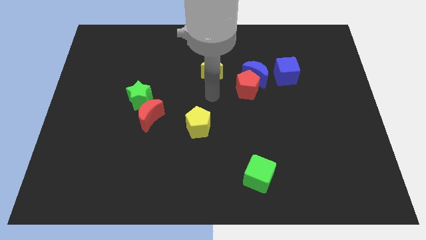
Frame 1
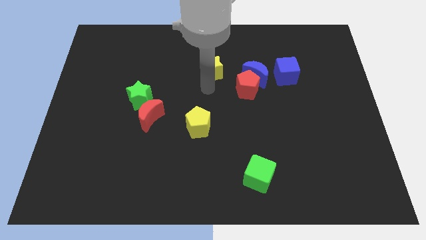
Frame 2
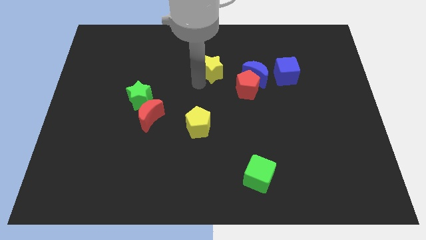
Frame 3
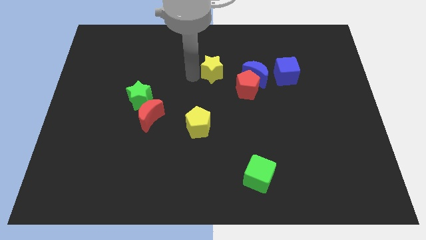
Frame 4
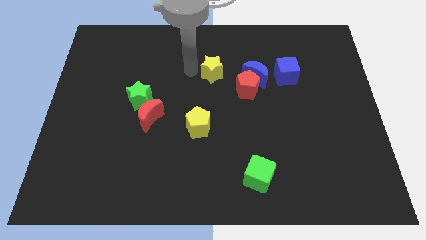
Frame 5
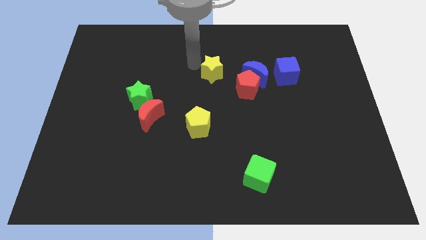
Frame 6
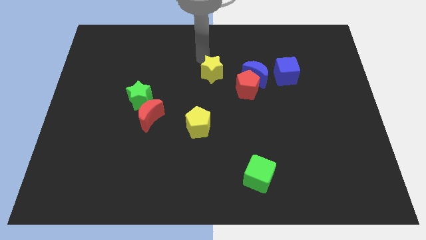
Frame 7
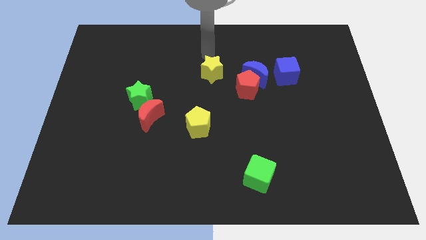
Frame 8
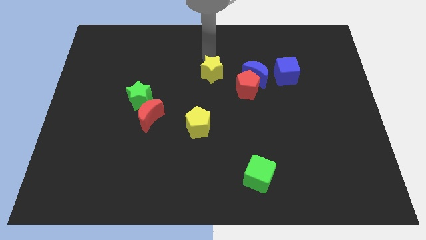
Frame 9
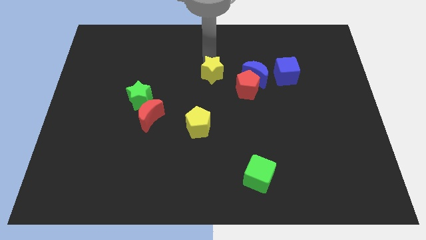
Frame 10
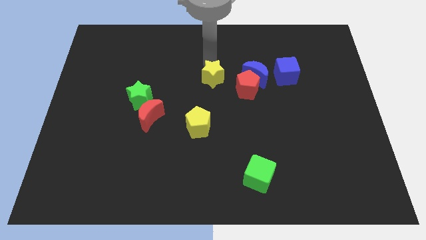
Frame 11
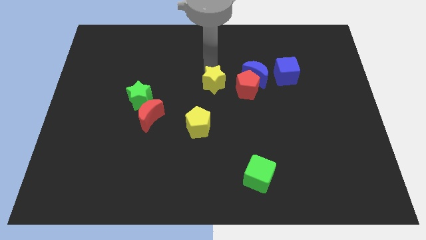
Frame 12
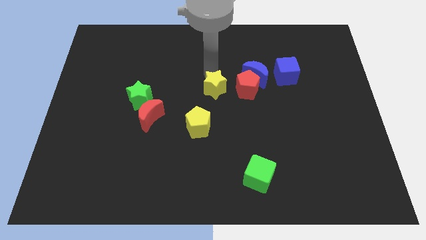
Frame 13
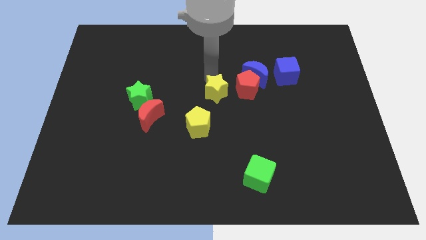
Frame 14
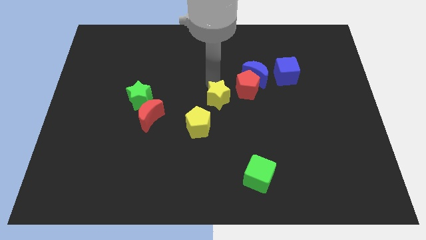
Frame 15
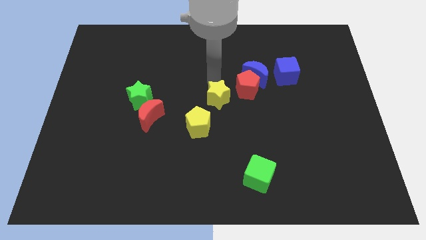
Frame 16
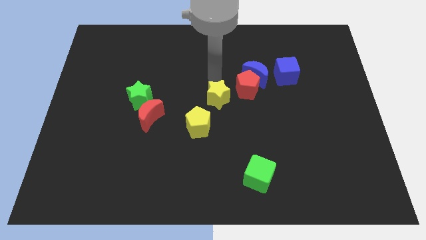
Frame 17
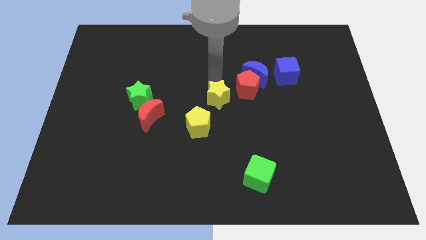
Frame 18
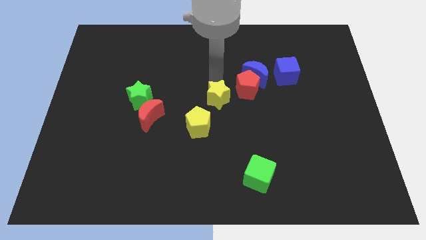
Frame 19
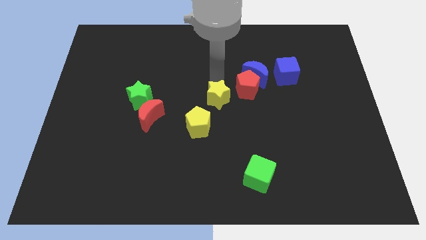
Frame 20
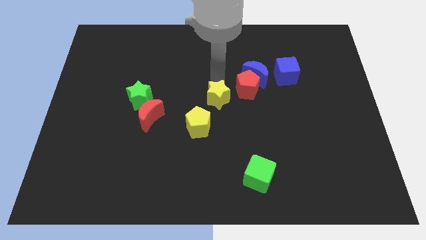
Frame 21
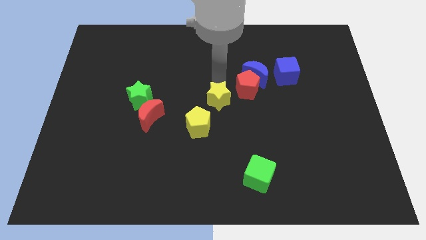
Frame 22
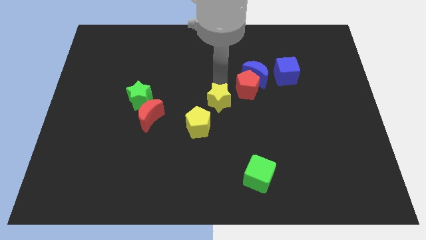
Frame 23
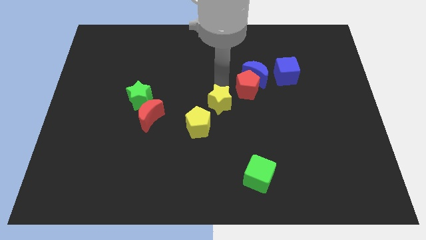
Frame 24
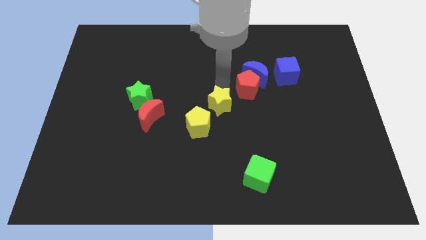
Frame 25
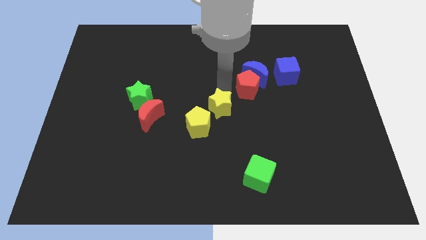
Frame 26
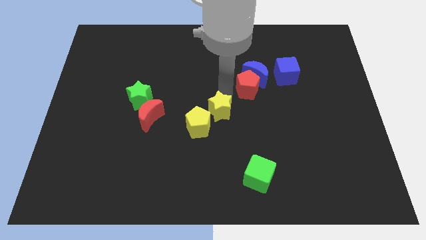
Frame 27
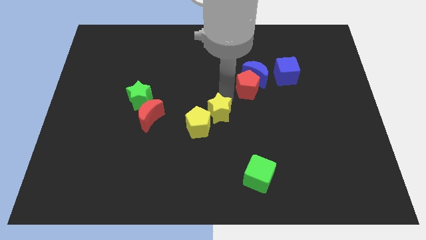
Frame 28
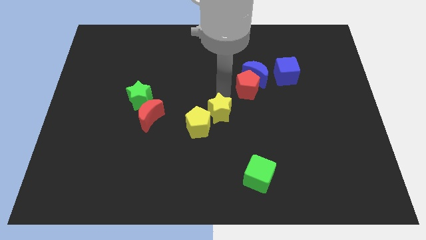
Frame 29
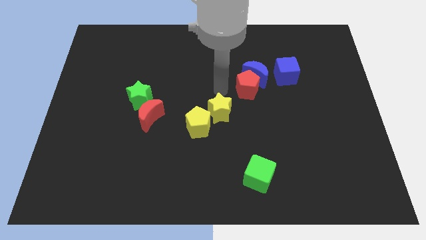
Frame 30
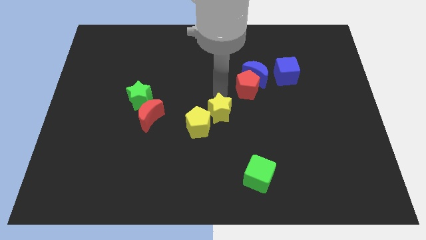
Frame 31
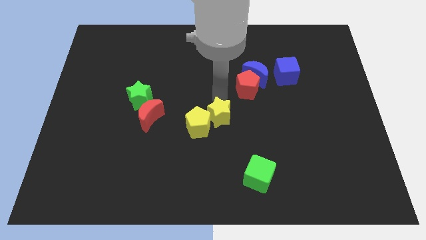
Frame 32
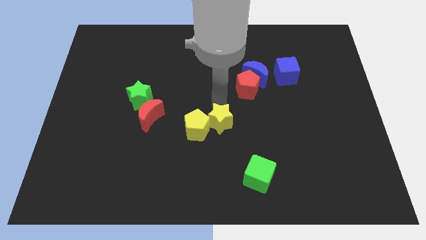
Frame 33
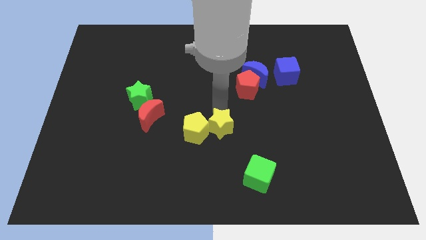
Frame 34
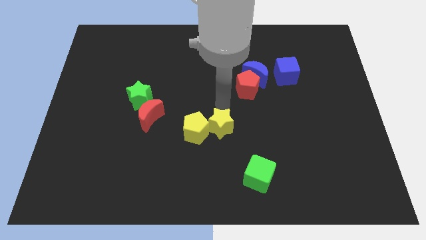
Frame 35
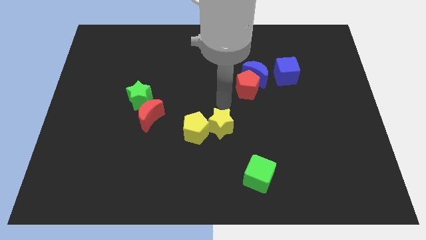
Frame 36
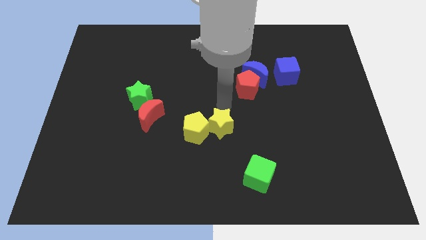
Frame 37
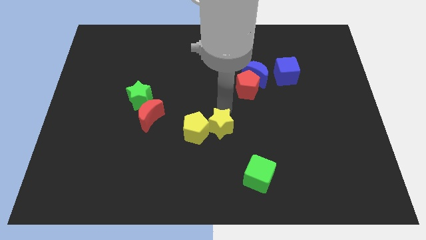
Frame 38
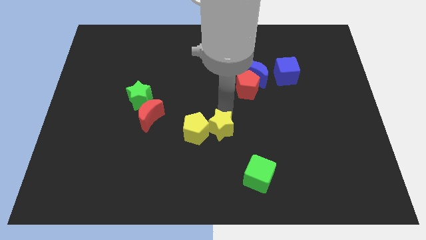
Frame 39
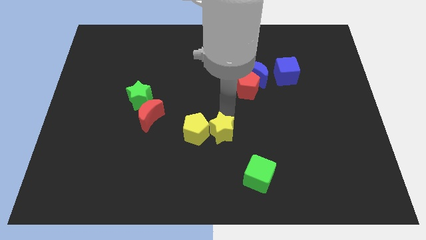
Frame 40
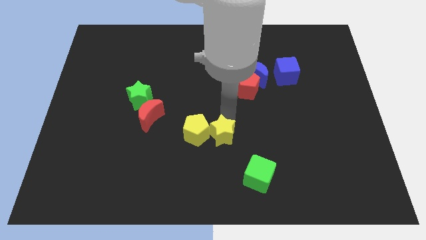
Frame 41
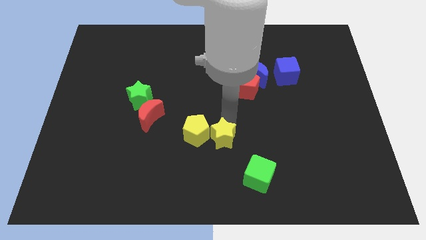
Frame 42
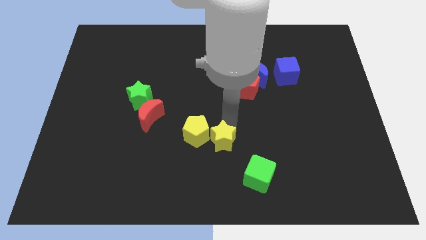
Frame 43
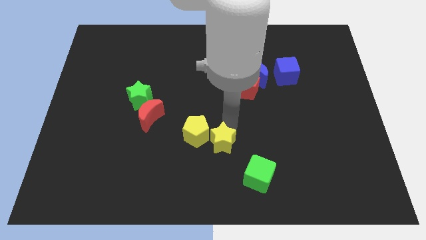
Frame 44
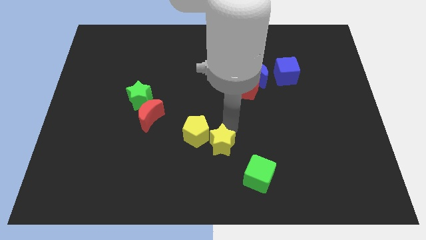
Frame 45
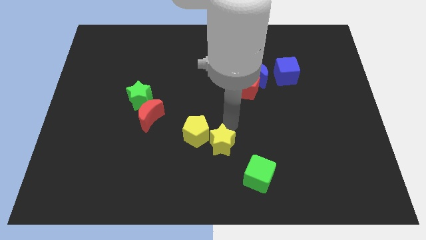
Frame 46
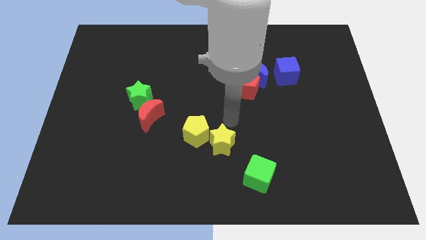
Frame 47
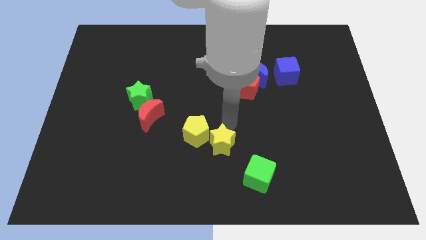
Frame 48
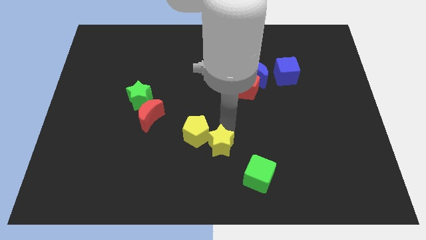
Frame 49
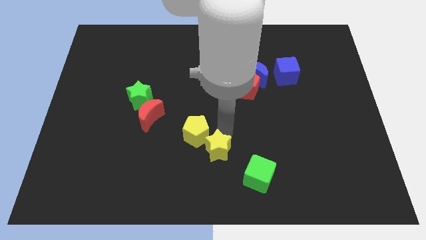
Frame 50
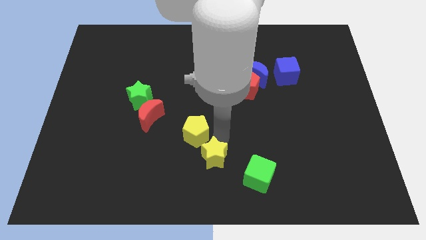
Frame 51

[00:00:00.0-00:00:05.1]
move the yellow star to the bottom

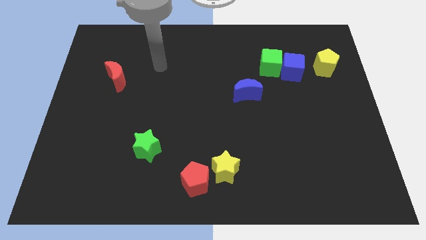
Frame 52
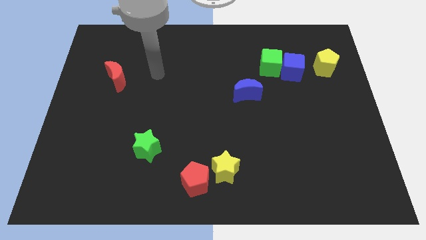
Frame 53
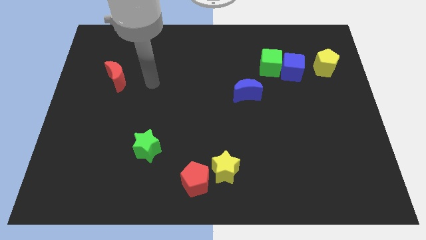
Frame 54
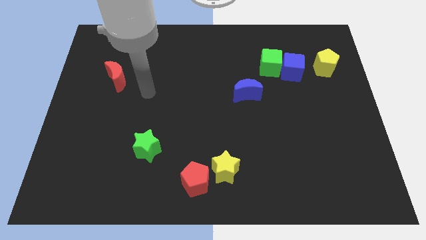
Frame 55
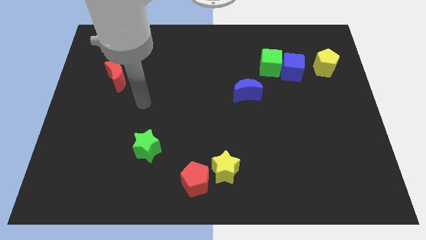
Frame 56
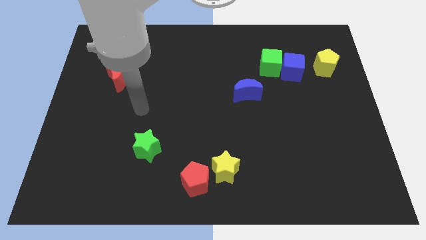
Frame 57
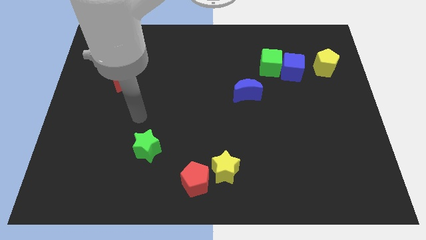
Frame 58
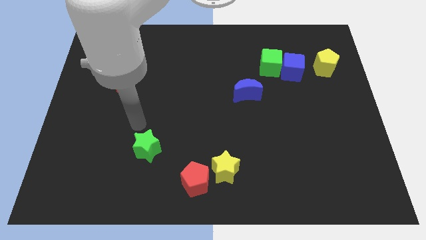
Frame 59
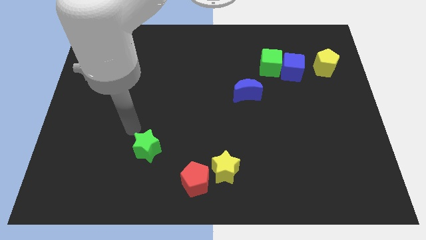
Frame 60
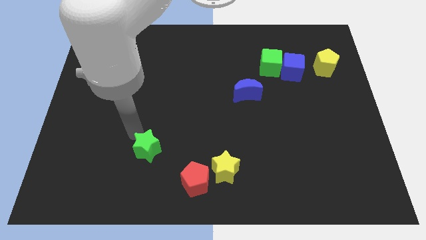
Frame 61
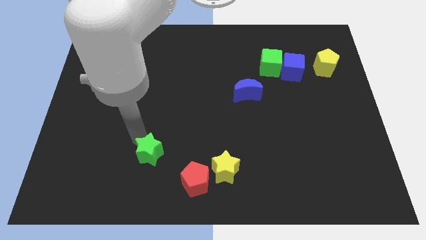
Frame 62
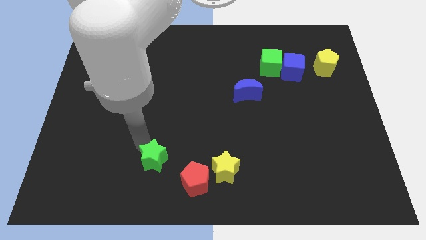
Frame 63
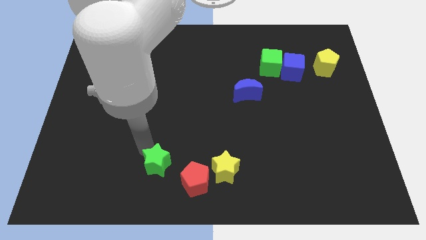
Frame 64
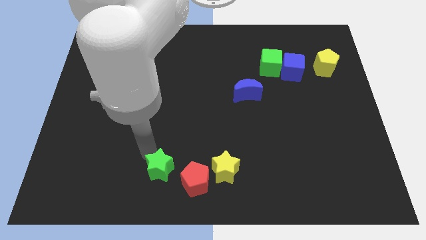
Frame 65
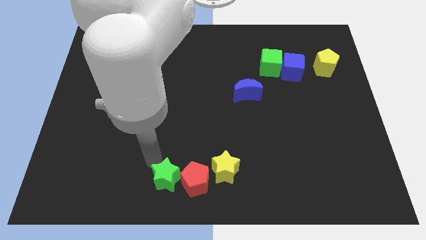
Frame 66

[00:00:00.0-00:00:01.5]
push the green star to the bottom
